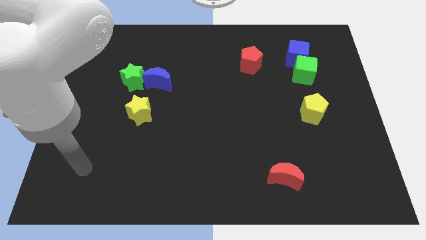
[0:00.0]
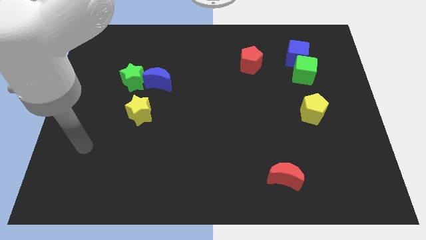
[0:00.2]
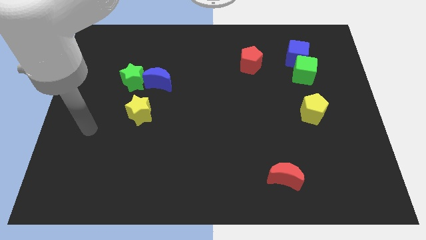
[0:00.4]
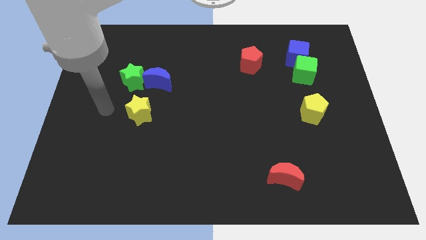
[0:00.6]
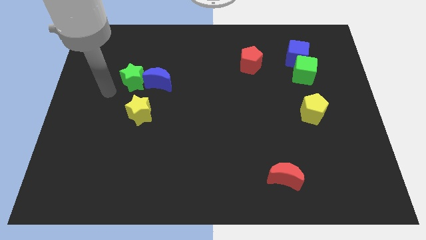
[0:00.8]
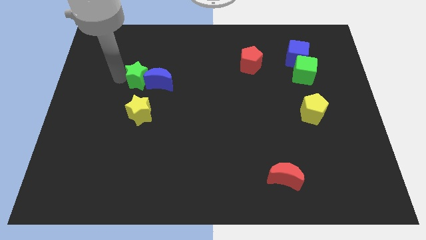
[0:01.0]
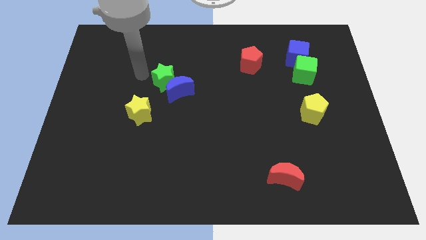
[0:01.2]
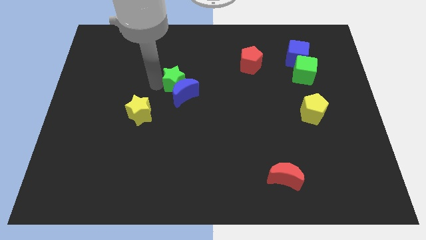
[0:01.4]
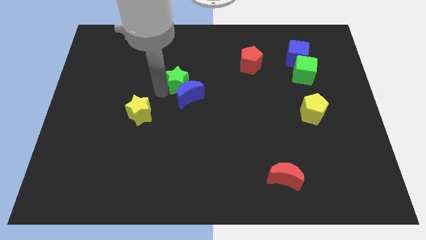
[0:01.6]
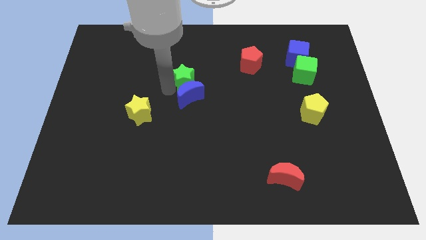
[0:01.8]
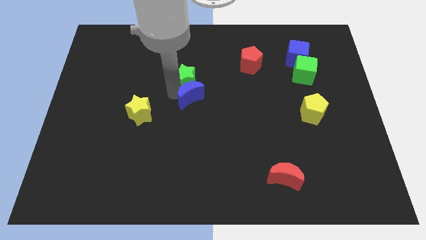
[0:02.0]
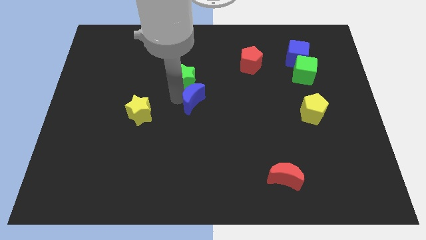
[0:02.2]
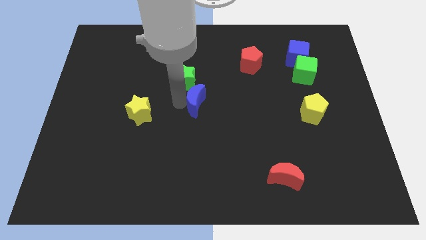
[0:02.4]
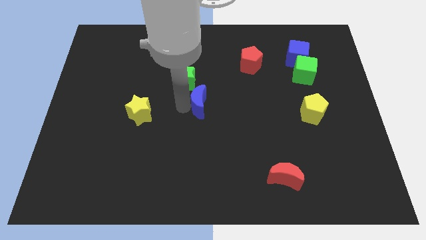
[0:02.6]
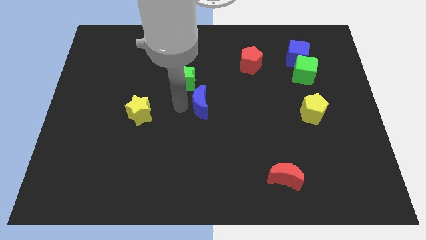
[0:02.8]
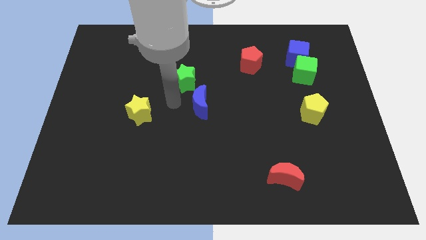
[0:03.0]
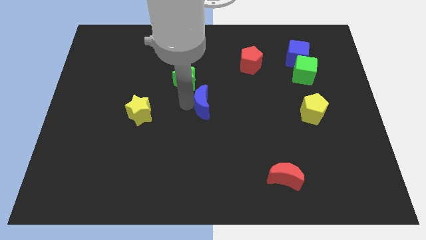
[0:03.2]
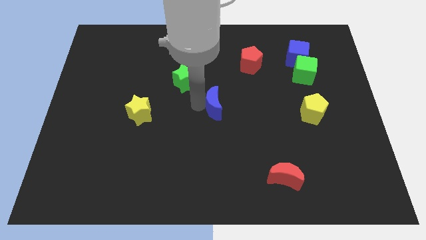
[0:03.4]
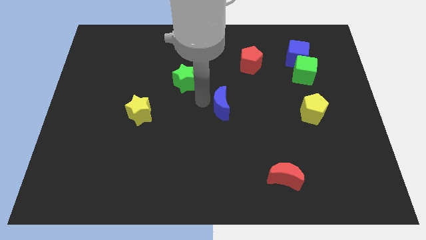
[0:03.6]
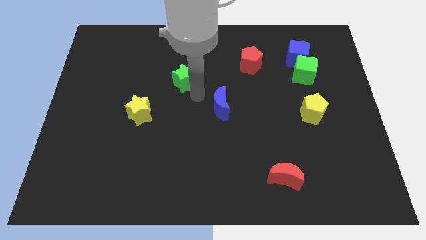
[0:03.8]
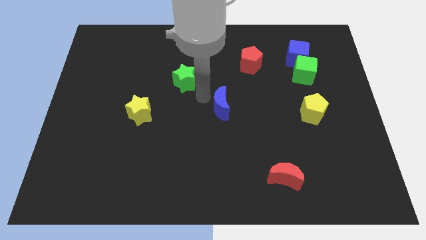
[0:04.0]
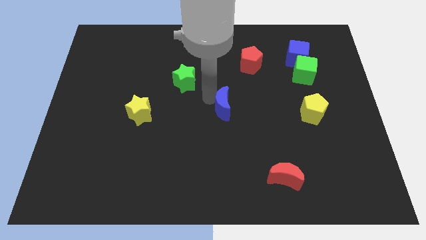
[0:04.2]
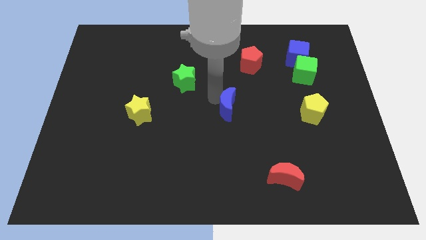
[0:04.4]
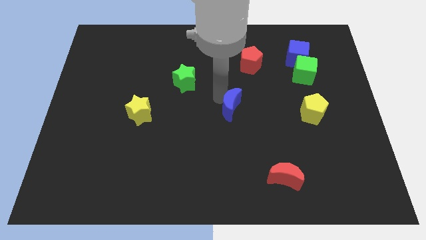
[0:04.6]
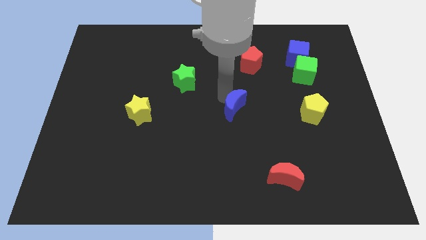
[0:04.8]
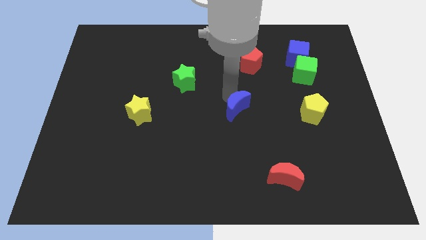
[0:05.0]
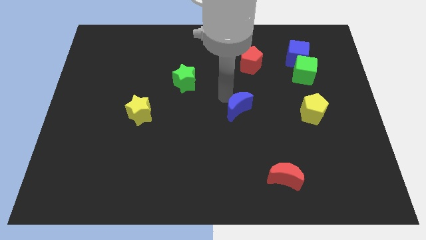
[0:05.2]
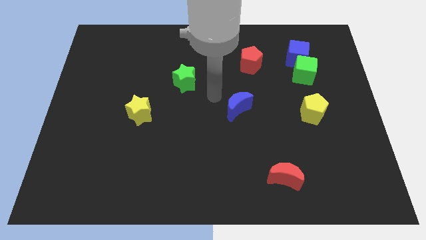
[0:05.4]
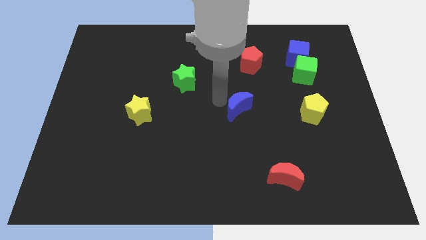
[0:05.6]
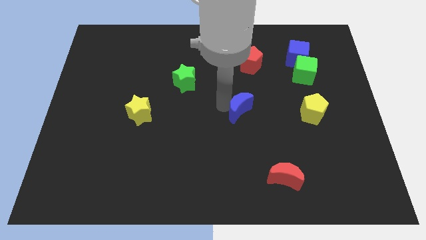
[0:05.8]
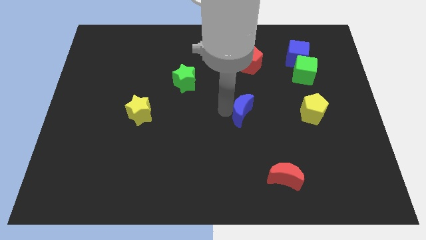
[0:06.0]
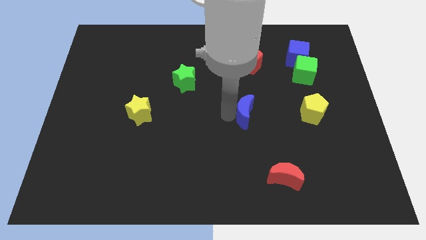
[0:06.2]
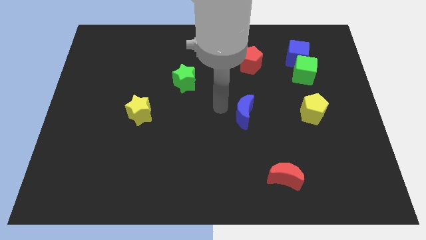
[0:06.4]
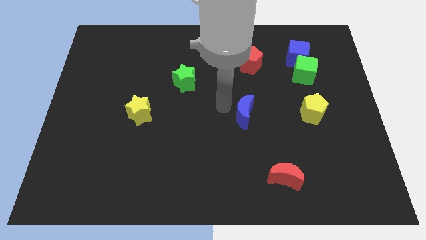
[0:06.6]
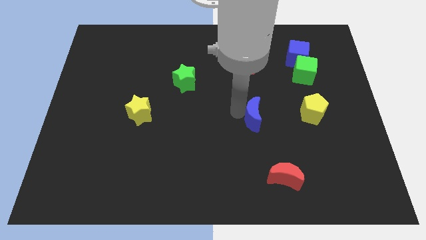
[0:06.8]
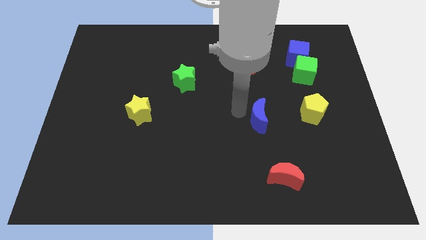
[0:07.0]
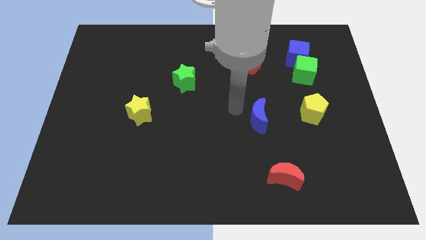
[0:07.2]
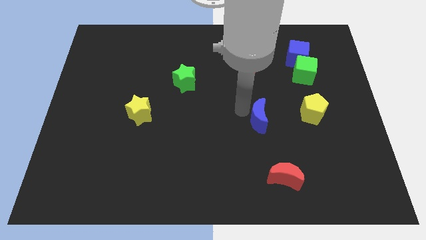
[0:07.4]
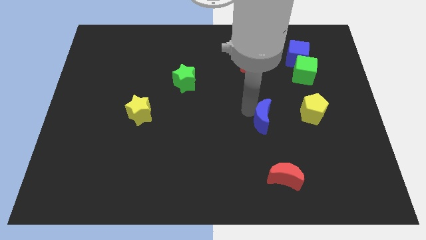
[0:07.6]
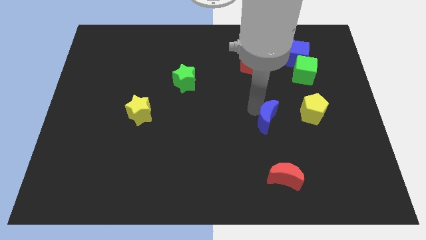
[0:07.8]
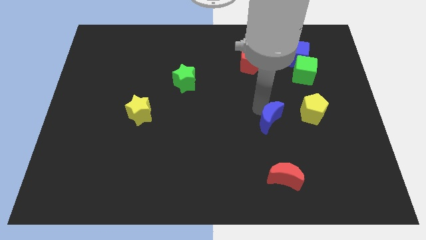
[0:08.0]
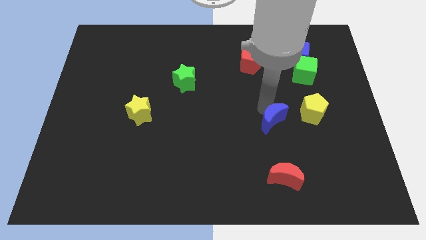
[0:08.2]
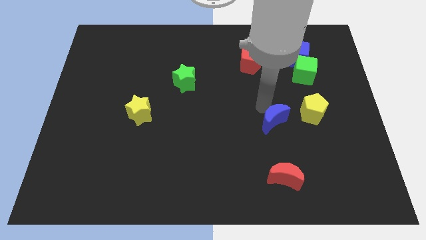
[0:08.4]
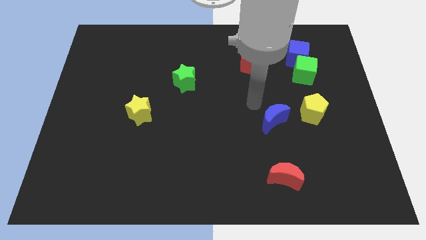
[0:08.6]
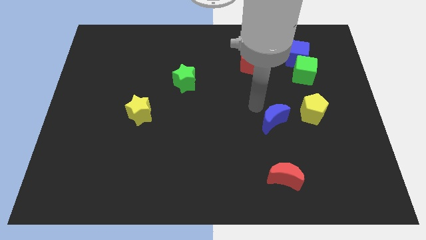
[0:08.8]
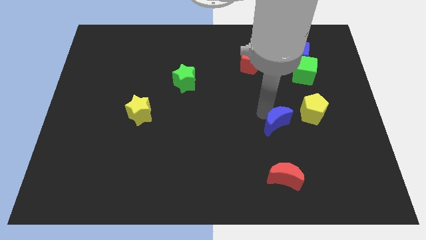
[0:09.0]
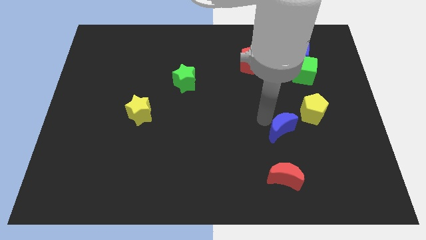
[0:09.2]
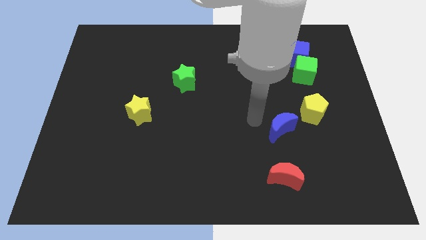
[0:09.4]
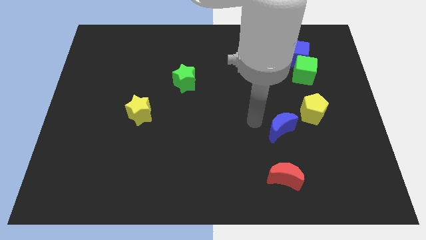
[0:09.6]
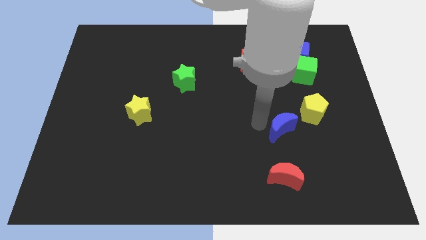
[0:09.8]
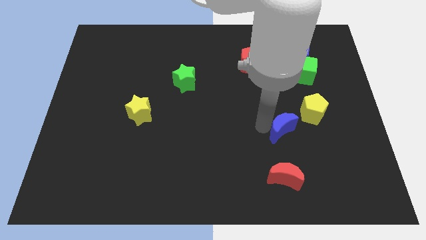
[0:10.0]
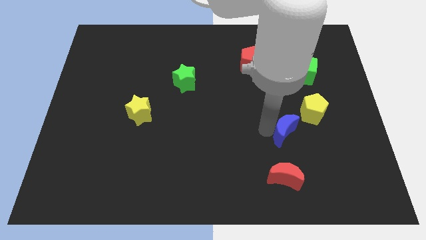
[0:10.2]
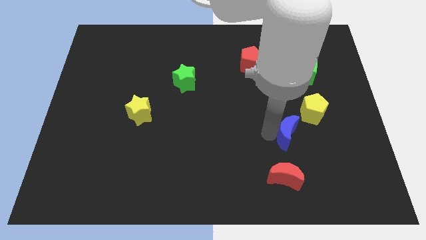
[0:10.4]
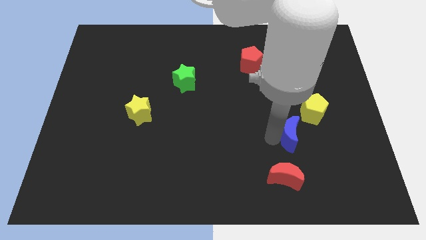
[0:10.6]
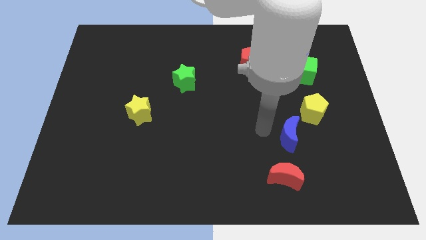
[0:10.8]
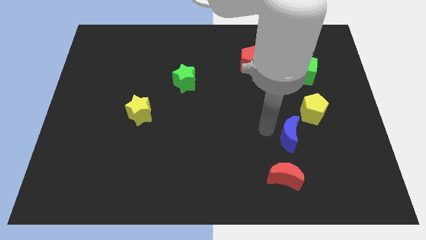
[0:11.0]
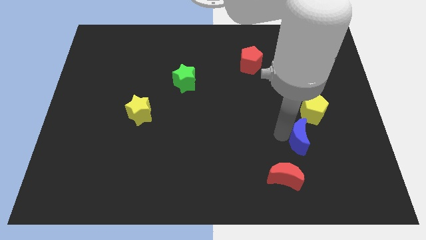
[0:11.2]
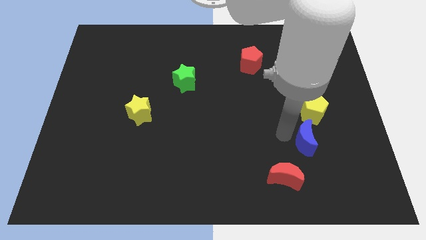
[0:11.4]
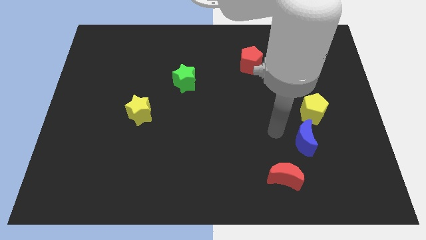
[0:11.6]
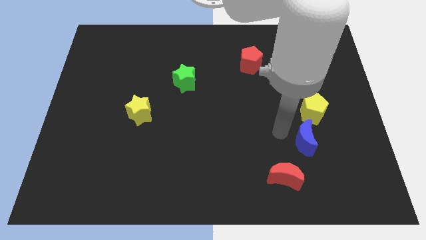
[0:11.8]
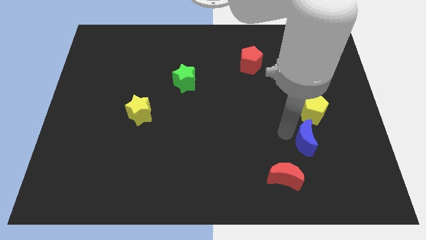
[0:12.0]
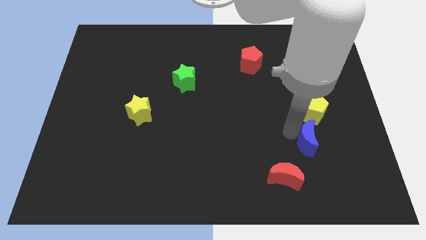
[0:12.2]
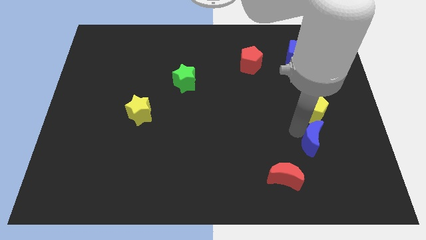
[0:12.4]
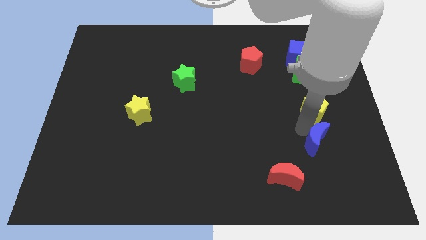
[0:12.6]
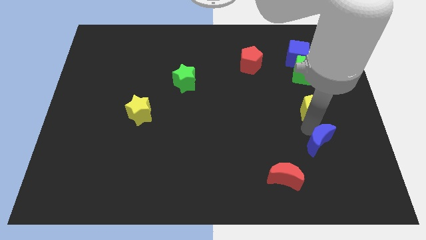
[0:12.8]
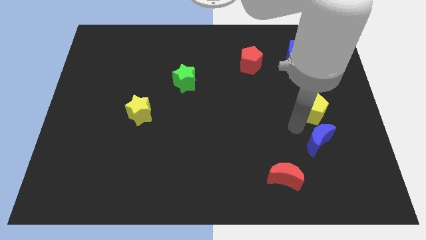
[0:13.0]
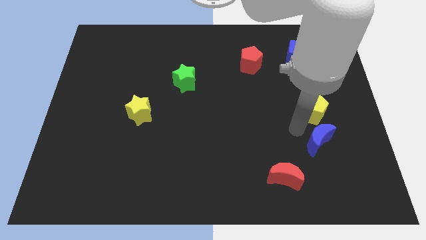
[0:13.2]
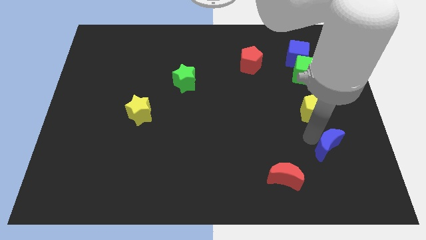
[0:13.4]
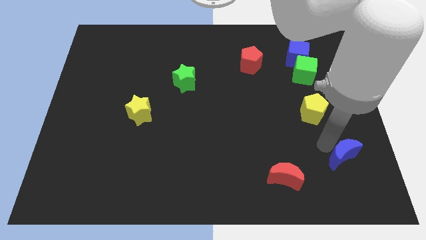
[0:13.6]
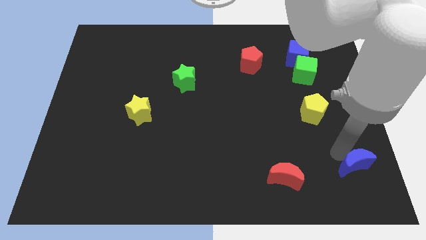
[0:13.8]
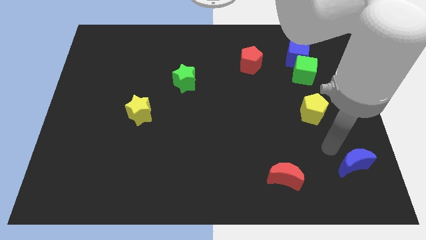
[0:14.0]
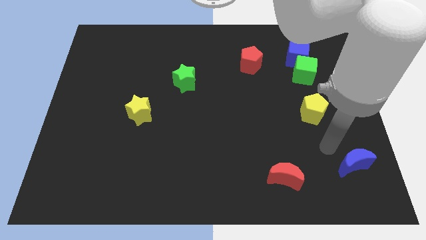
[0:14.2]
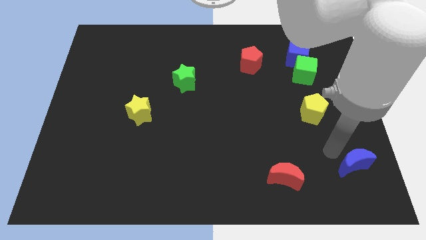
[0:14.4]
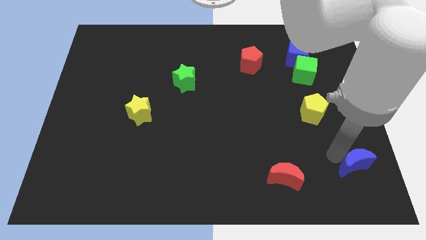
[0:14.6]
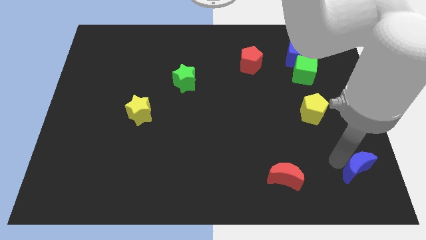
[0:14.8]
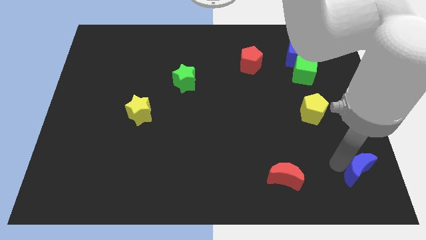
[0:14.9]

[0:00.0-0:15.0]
move the blue moon to the lower right corner
